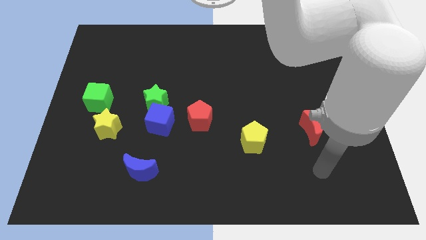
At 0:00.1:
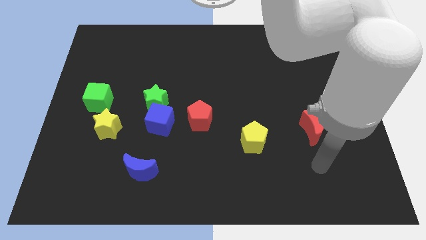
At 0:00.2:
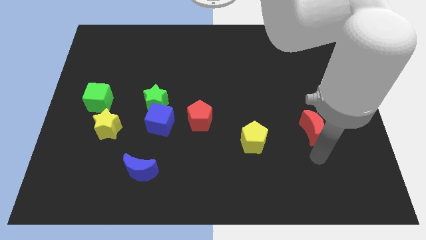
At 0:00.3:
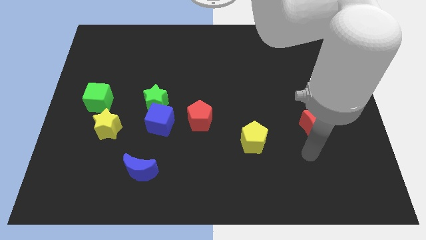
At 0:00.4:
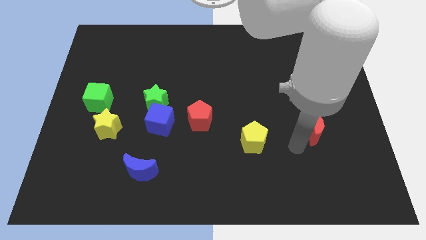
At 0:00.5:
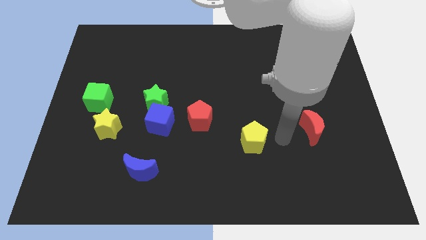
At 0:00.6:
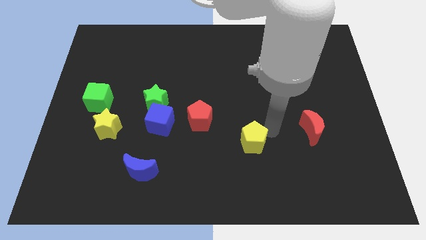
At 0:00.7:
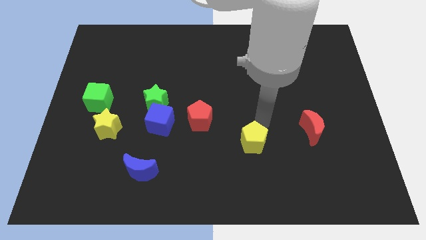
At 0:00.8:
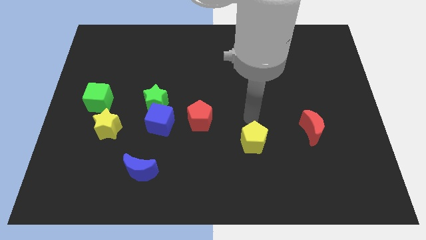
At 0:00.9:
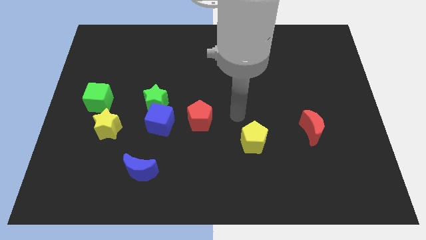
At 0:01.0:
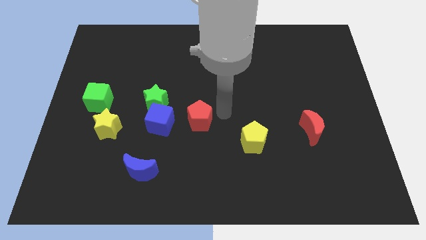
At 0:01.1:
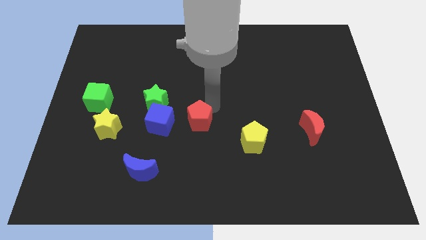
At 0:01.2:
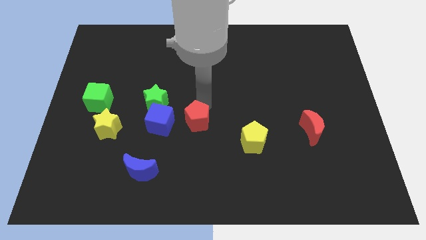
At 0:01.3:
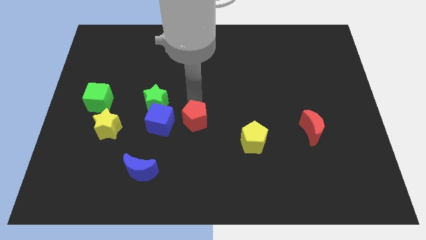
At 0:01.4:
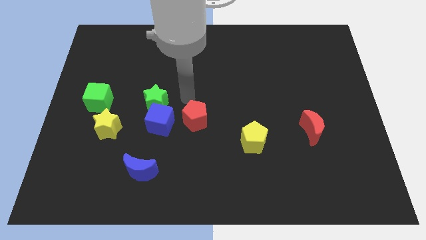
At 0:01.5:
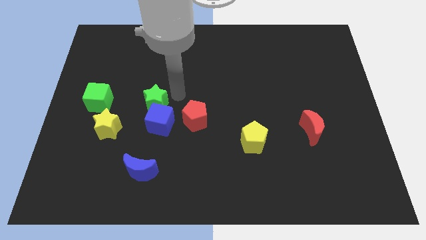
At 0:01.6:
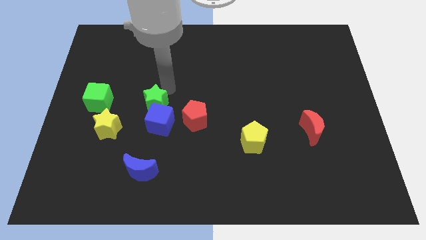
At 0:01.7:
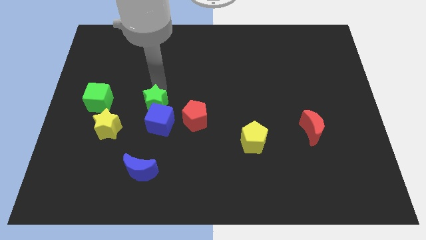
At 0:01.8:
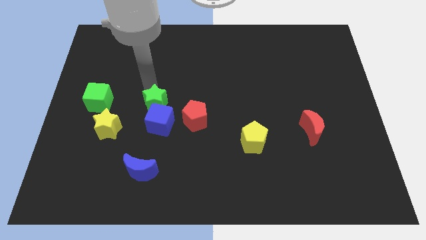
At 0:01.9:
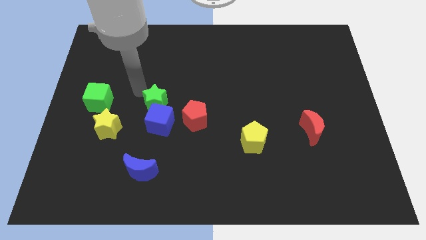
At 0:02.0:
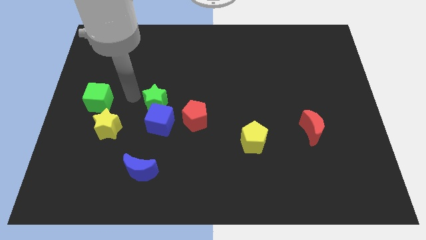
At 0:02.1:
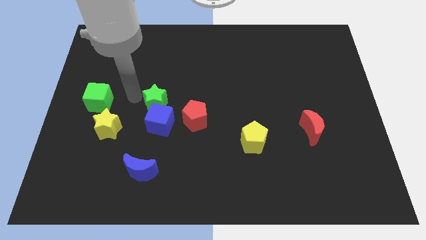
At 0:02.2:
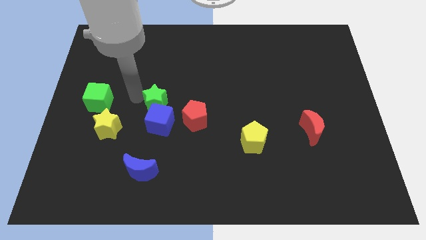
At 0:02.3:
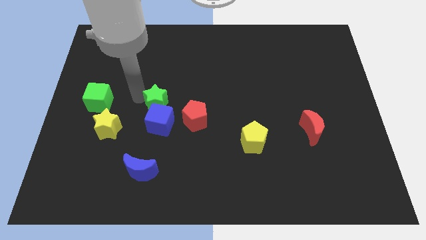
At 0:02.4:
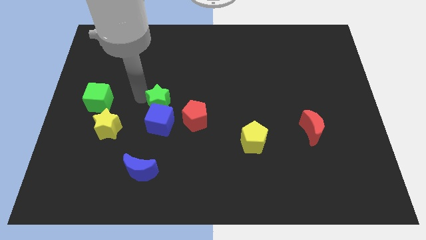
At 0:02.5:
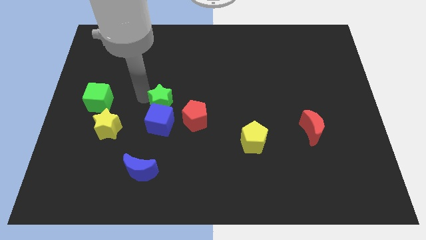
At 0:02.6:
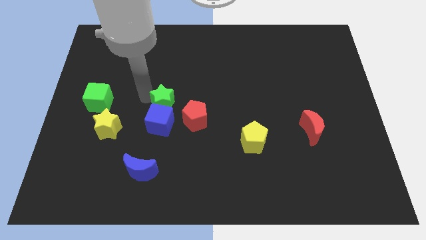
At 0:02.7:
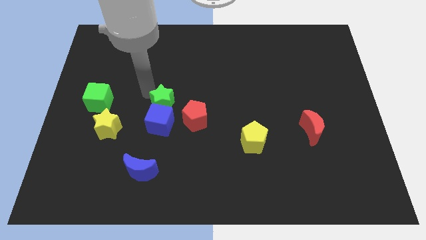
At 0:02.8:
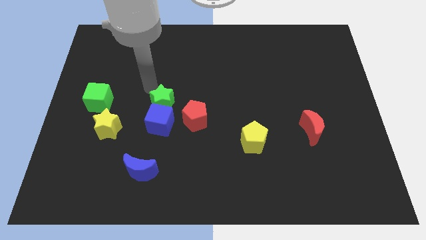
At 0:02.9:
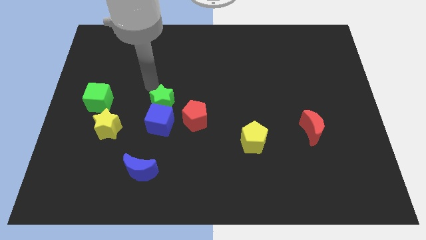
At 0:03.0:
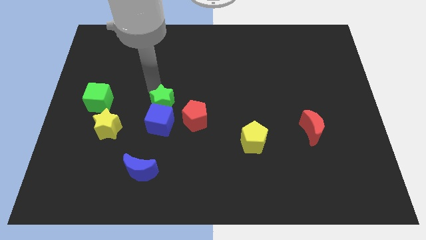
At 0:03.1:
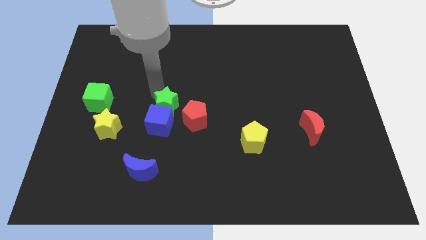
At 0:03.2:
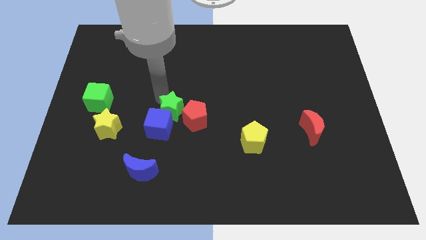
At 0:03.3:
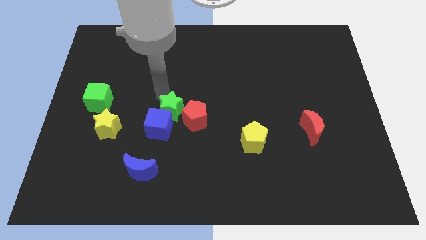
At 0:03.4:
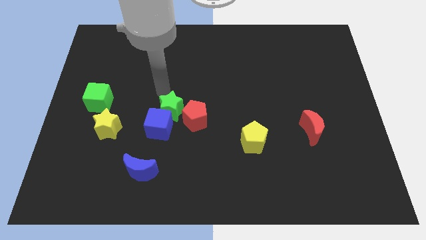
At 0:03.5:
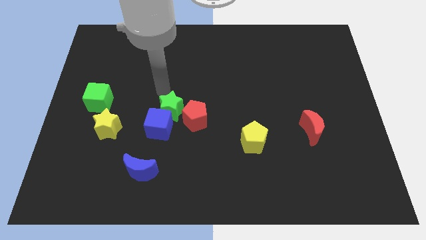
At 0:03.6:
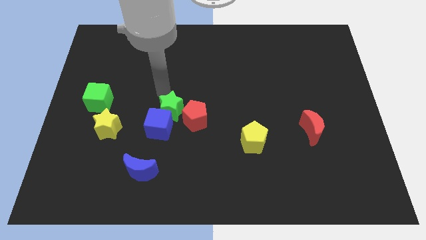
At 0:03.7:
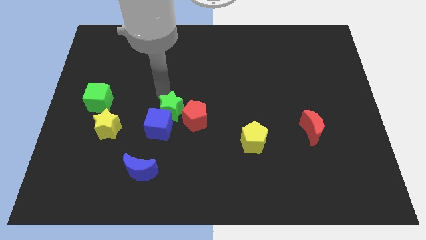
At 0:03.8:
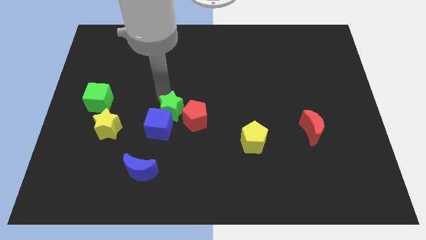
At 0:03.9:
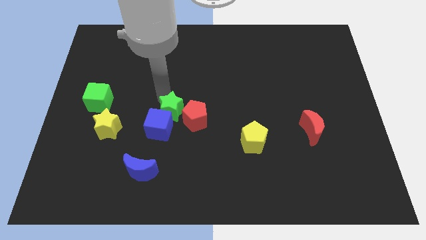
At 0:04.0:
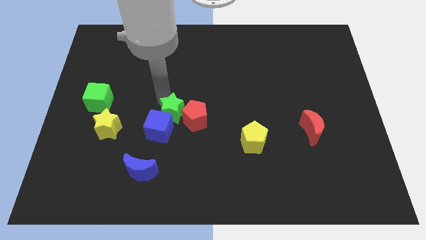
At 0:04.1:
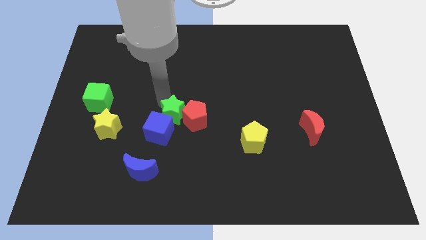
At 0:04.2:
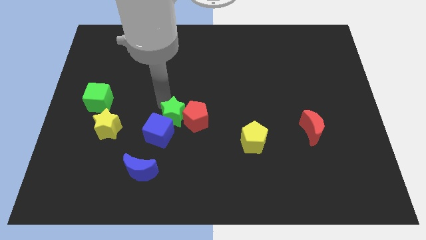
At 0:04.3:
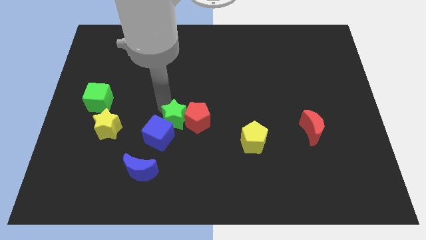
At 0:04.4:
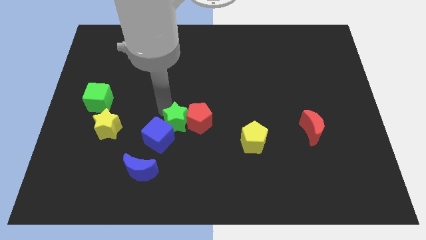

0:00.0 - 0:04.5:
push the green star somewhat downwards and then to the right

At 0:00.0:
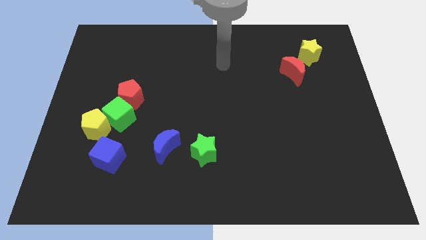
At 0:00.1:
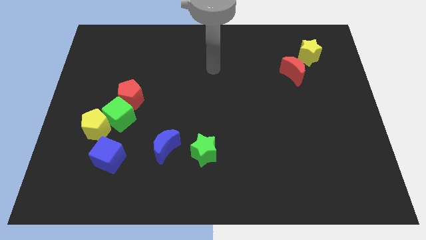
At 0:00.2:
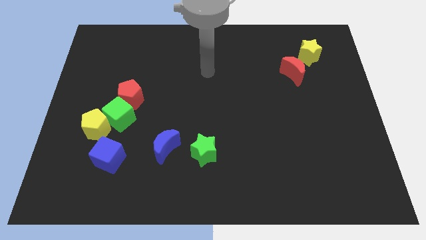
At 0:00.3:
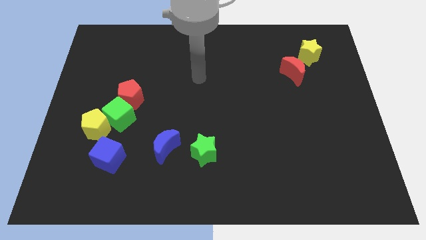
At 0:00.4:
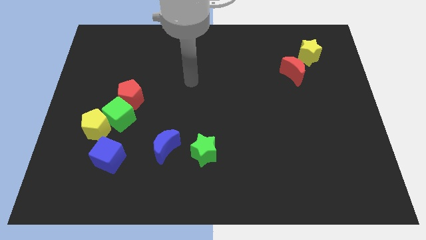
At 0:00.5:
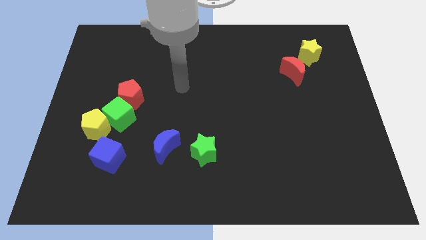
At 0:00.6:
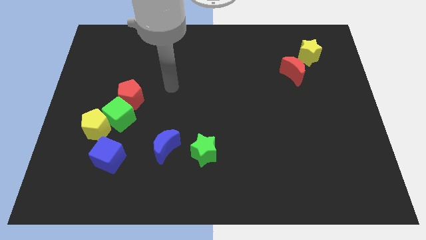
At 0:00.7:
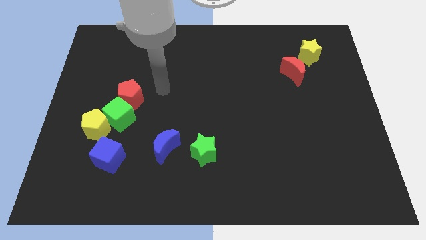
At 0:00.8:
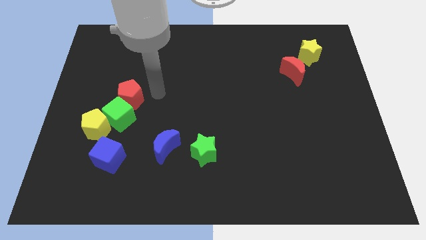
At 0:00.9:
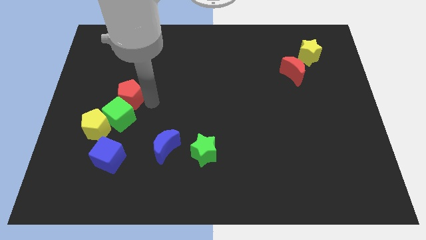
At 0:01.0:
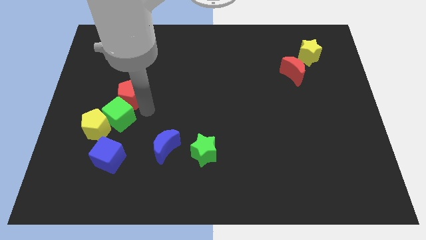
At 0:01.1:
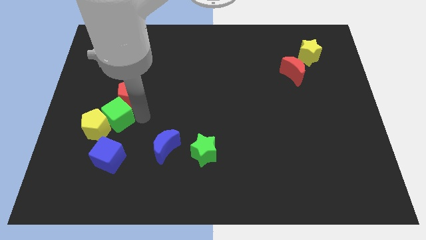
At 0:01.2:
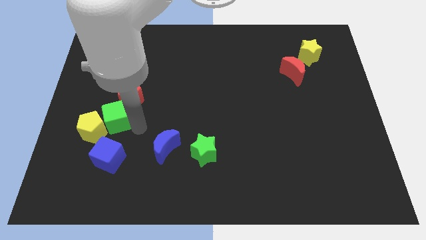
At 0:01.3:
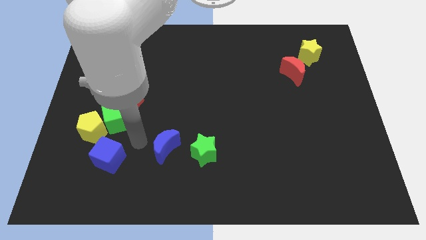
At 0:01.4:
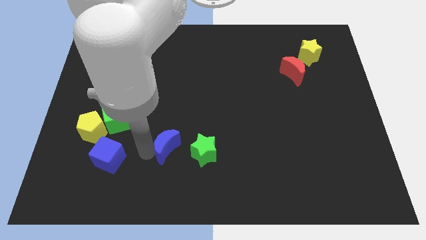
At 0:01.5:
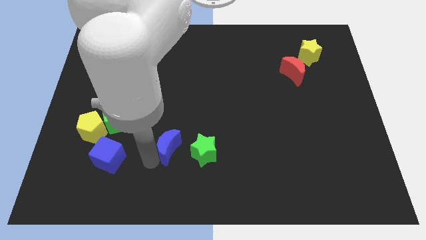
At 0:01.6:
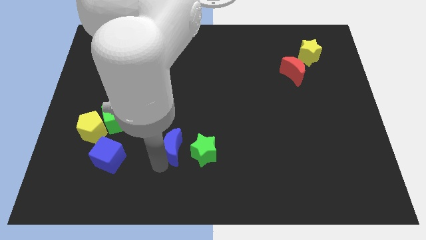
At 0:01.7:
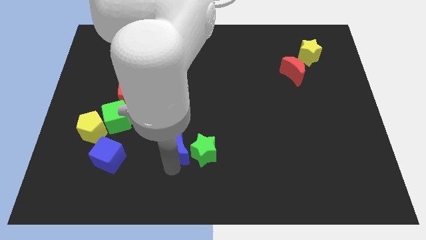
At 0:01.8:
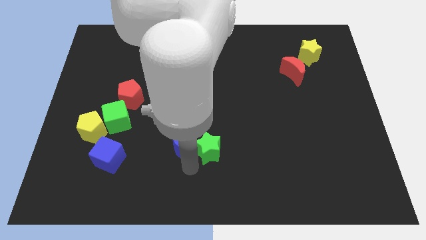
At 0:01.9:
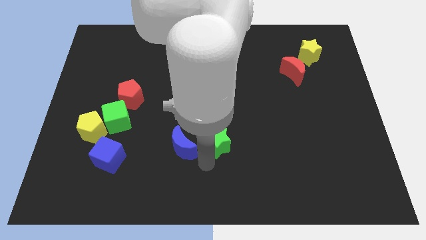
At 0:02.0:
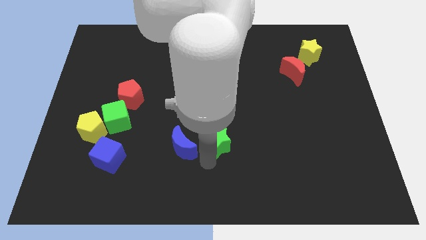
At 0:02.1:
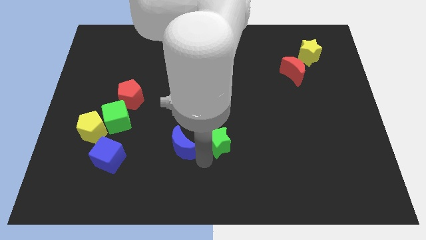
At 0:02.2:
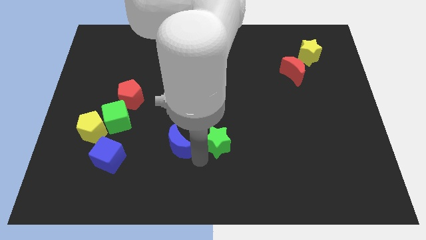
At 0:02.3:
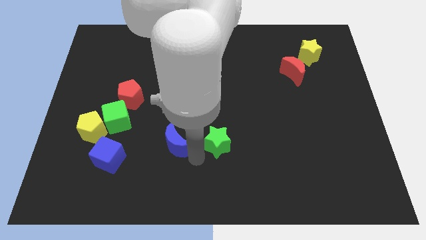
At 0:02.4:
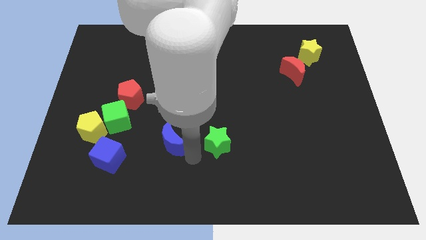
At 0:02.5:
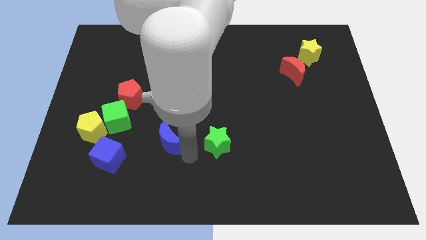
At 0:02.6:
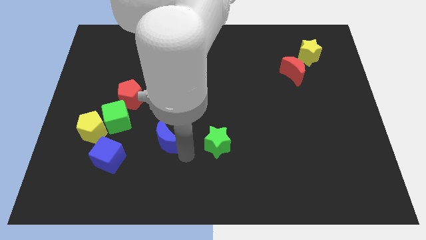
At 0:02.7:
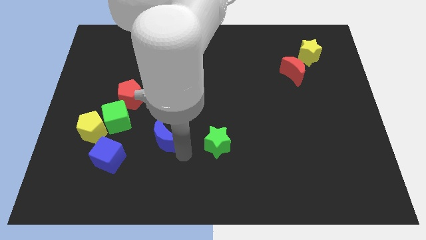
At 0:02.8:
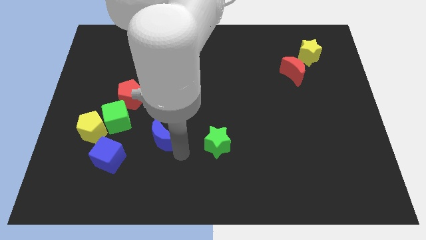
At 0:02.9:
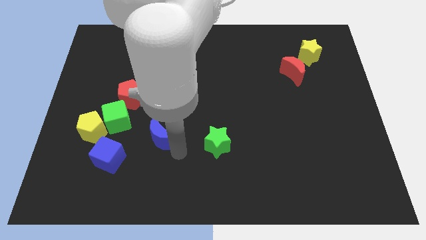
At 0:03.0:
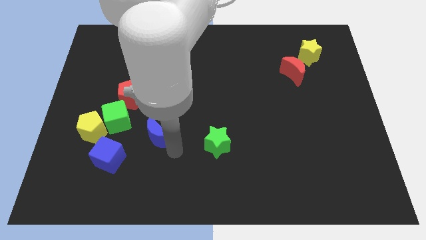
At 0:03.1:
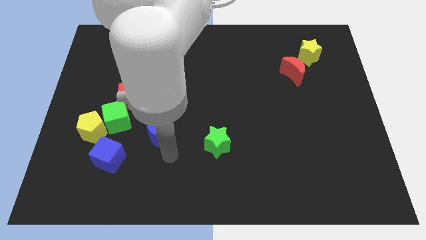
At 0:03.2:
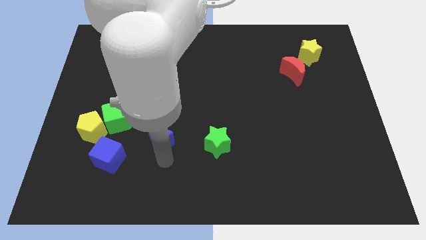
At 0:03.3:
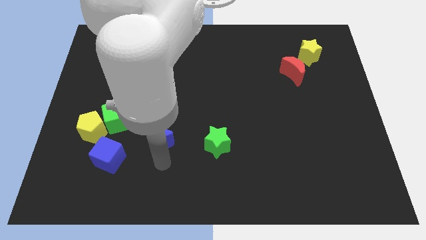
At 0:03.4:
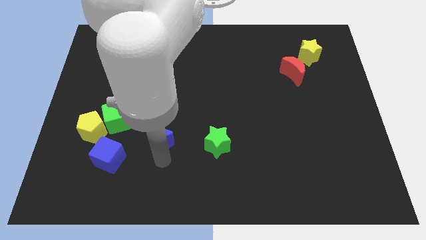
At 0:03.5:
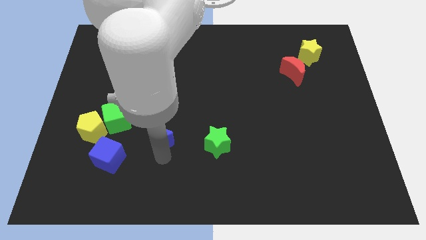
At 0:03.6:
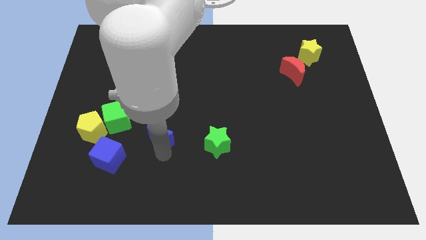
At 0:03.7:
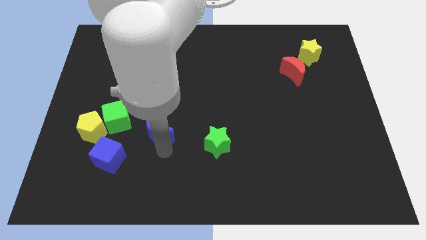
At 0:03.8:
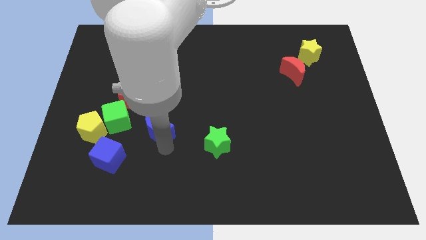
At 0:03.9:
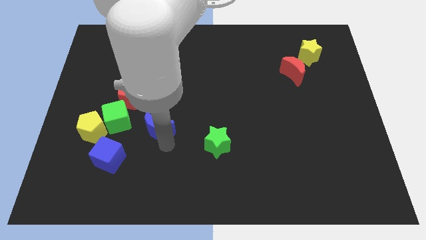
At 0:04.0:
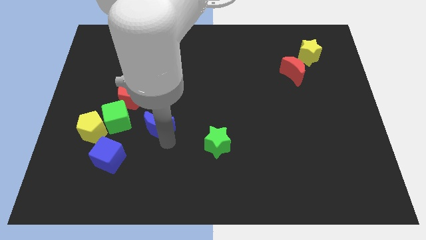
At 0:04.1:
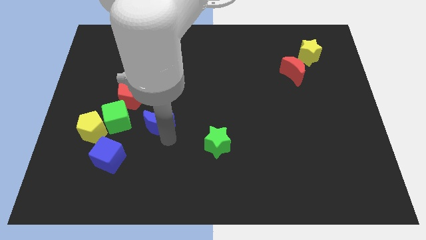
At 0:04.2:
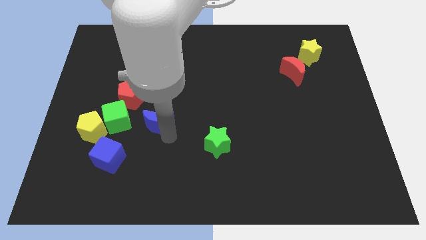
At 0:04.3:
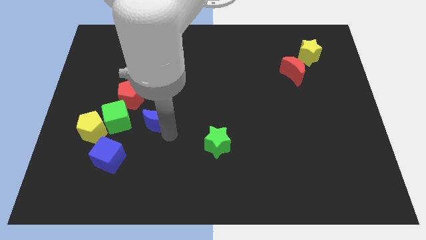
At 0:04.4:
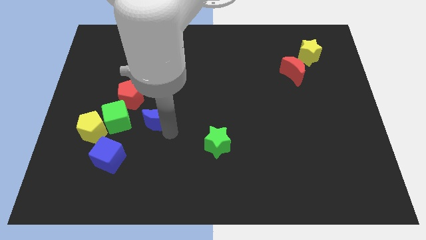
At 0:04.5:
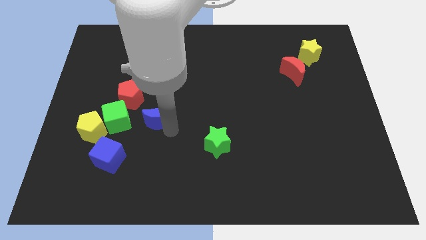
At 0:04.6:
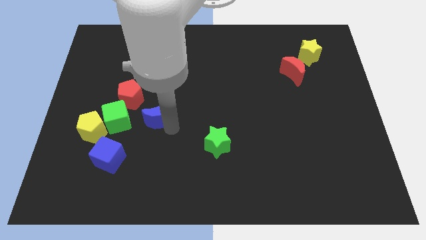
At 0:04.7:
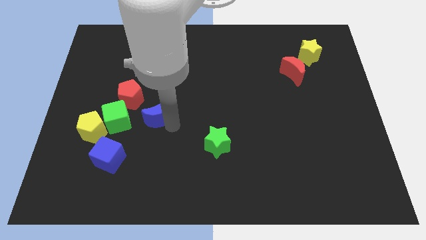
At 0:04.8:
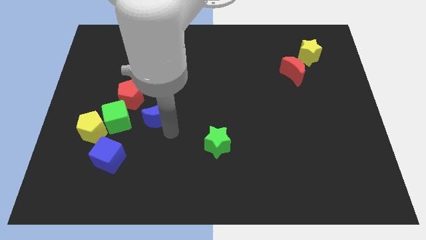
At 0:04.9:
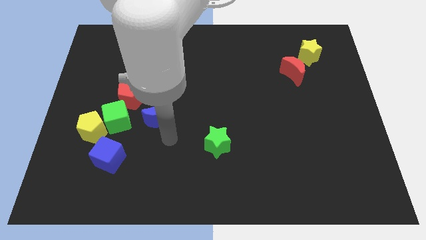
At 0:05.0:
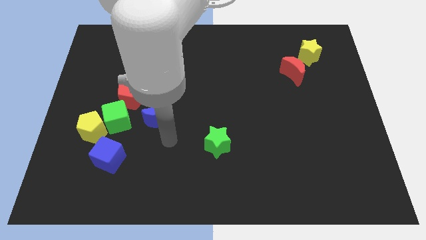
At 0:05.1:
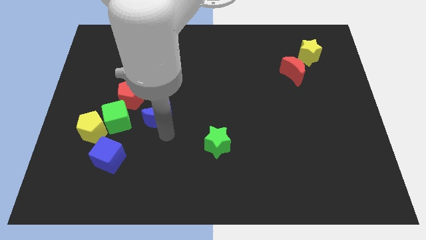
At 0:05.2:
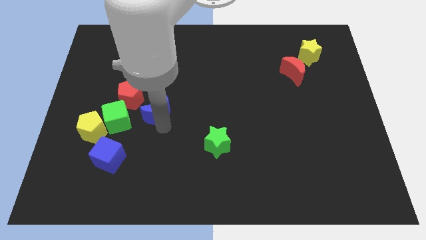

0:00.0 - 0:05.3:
slightly slide the blue moon diagonally up and left
